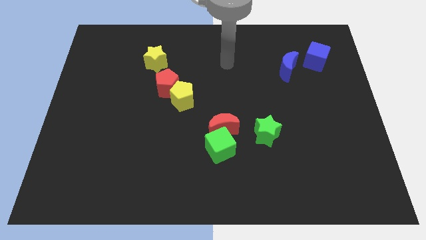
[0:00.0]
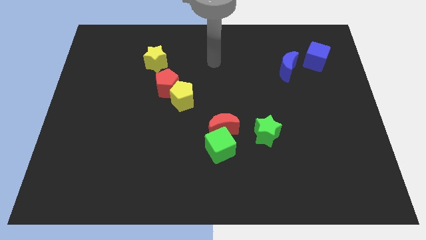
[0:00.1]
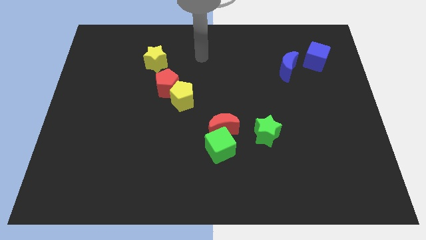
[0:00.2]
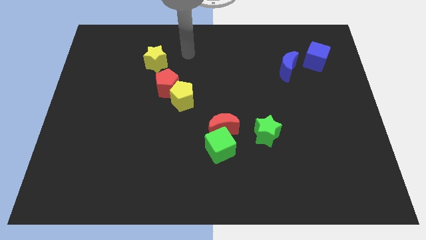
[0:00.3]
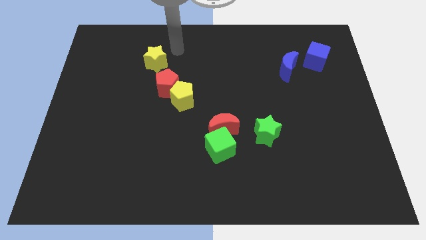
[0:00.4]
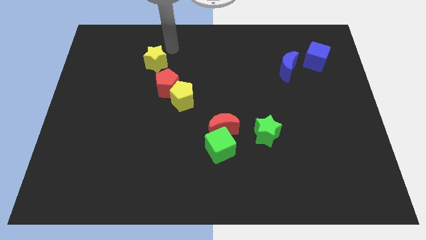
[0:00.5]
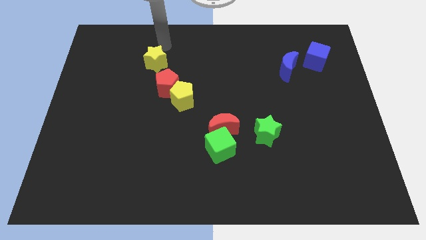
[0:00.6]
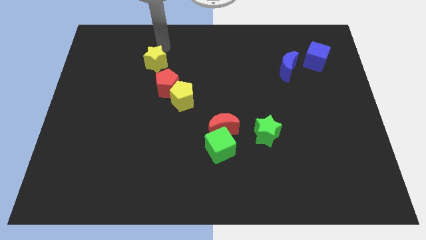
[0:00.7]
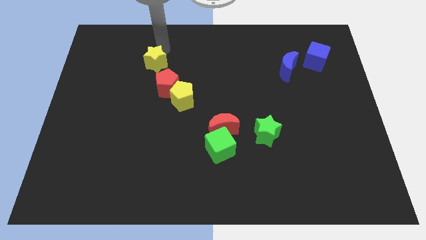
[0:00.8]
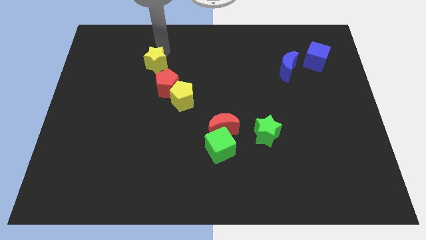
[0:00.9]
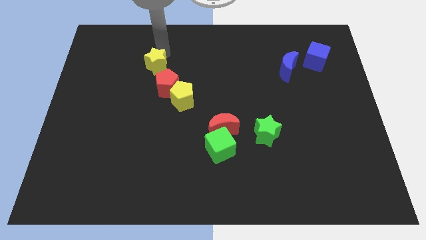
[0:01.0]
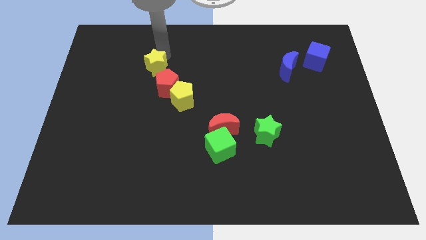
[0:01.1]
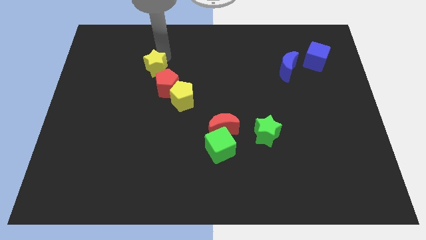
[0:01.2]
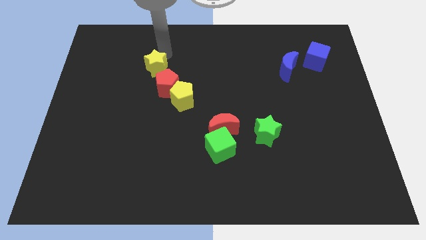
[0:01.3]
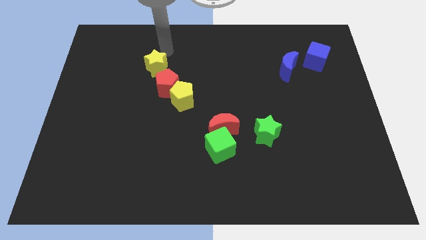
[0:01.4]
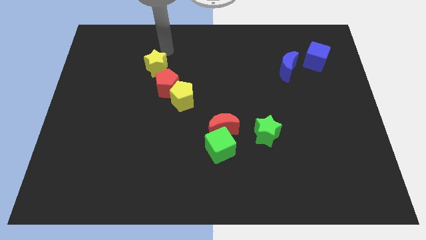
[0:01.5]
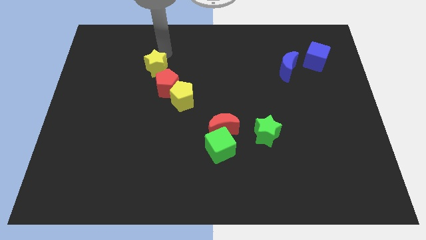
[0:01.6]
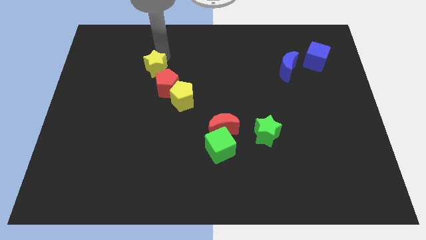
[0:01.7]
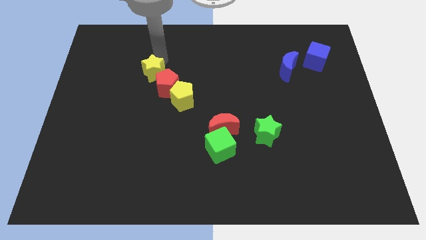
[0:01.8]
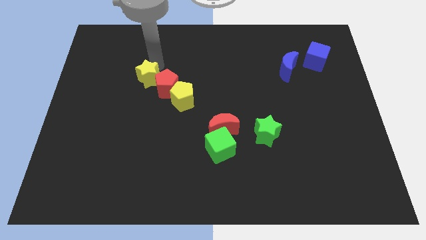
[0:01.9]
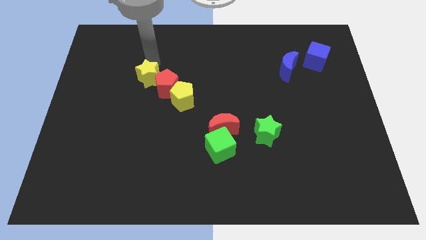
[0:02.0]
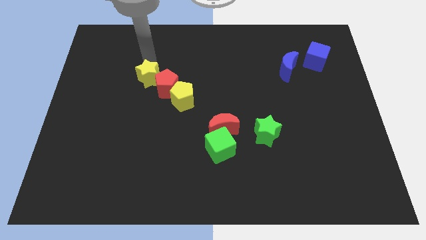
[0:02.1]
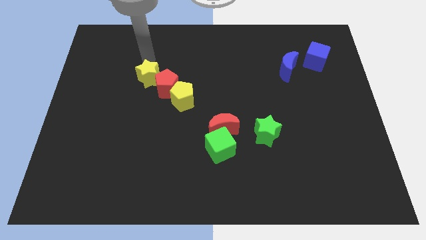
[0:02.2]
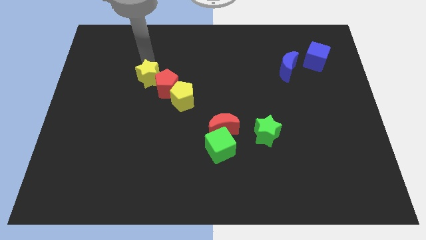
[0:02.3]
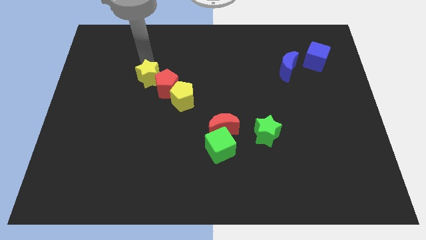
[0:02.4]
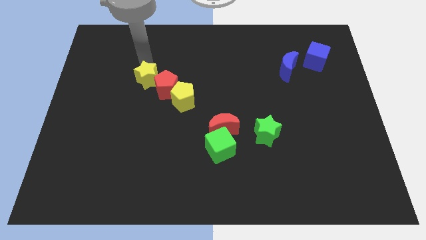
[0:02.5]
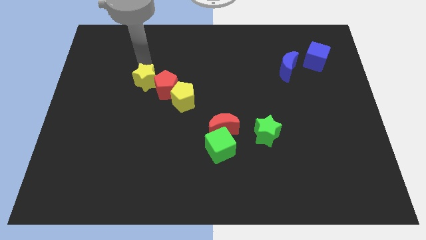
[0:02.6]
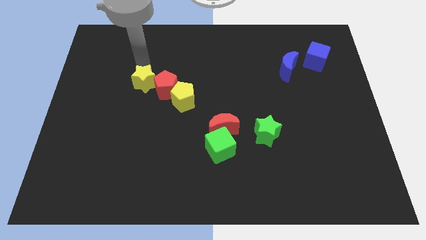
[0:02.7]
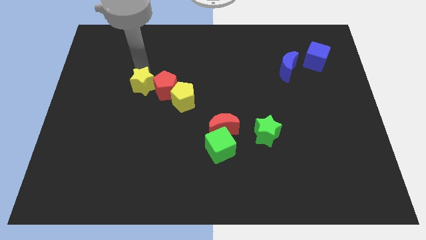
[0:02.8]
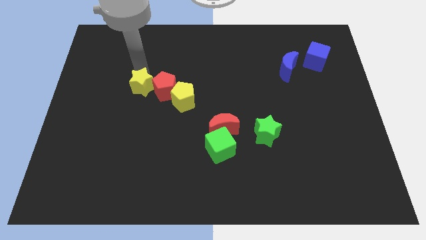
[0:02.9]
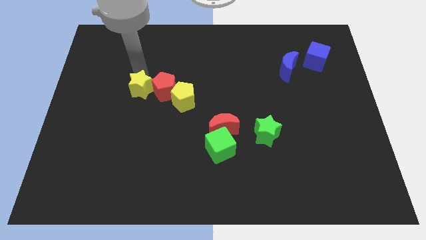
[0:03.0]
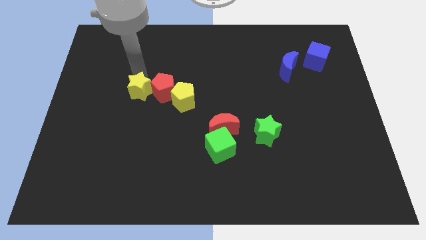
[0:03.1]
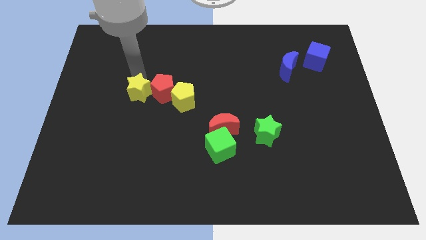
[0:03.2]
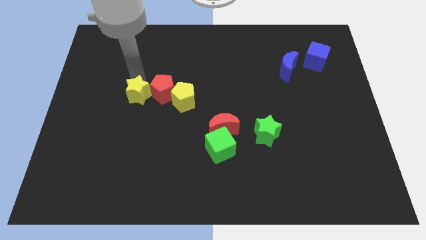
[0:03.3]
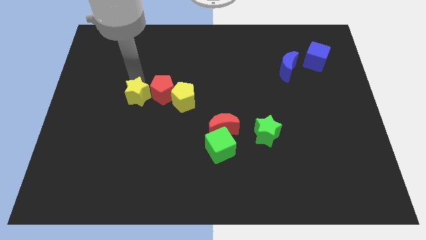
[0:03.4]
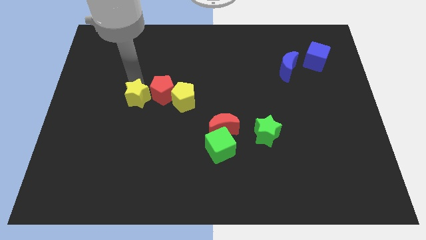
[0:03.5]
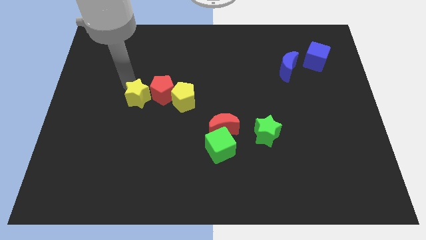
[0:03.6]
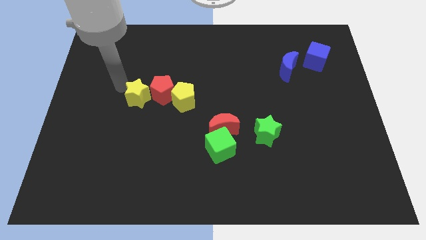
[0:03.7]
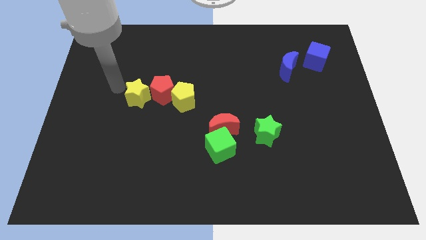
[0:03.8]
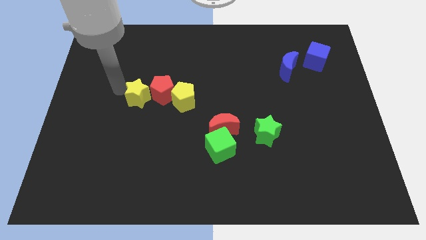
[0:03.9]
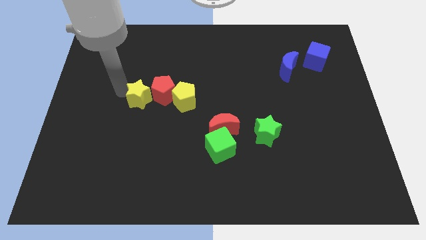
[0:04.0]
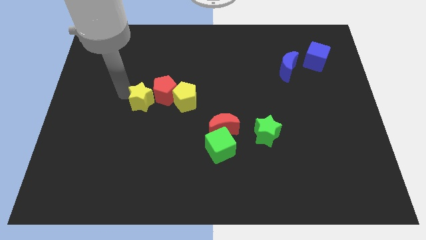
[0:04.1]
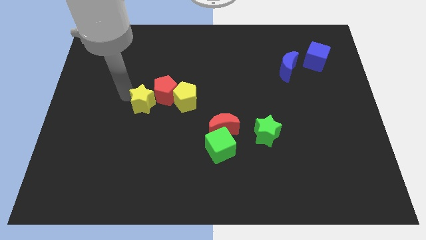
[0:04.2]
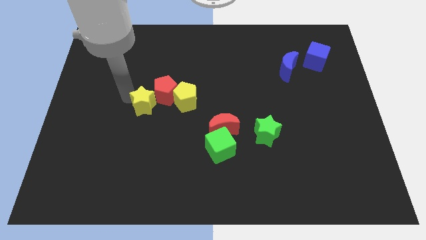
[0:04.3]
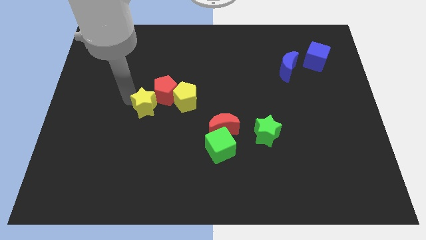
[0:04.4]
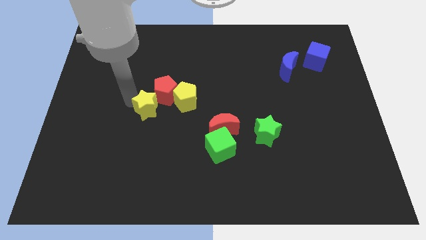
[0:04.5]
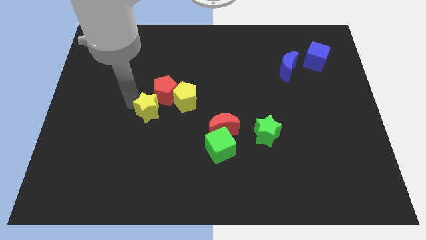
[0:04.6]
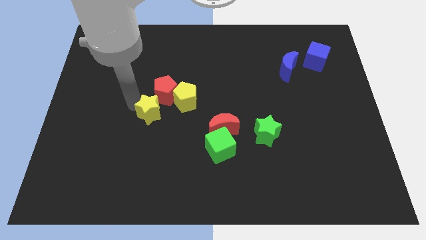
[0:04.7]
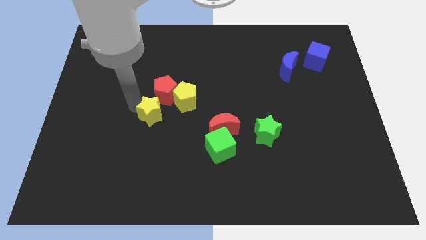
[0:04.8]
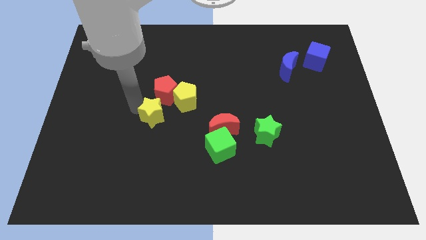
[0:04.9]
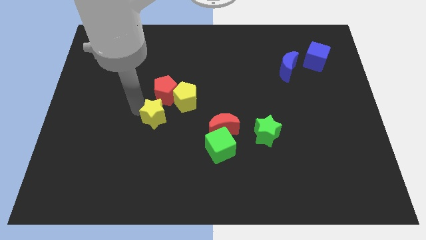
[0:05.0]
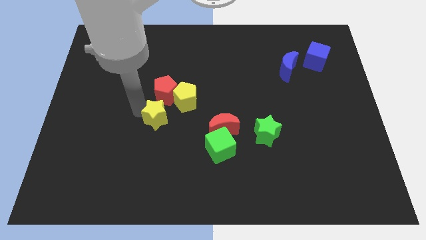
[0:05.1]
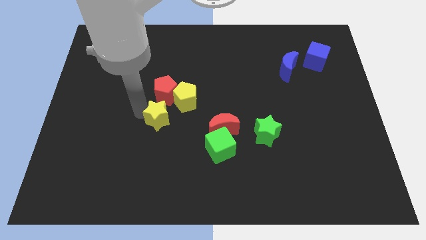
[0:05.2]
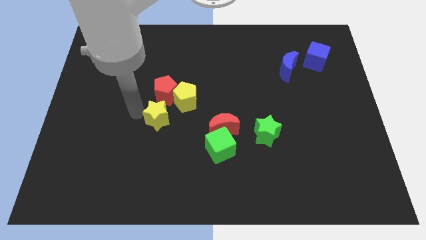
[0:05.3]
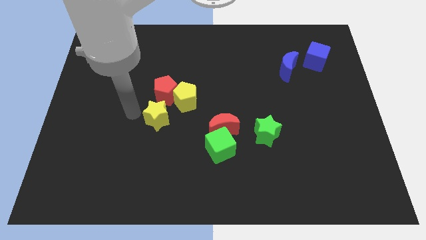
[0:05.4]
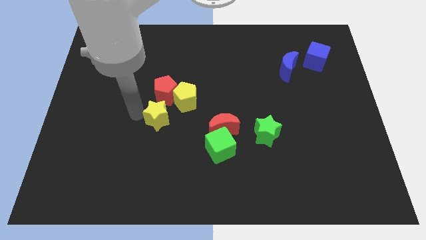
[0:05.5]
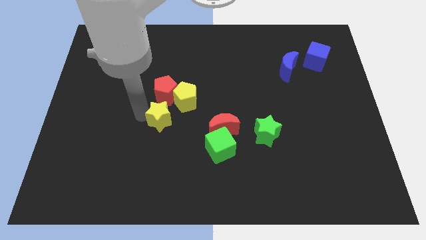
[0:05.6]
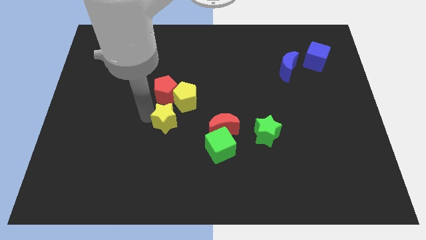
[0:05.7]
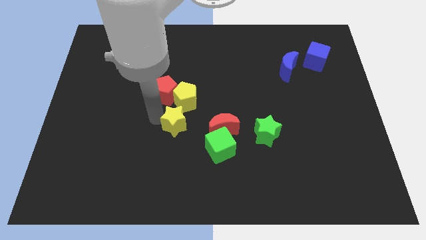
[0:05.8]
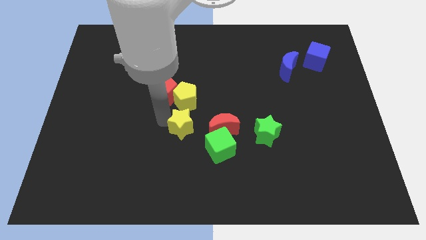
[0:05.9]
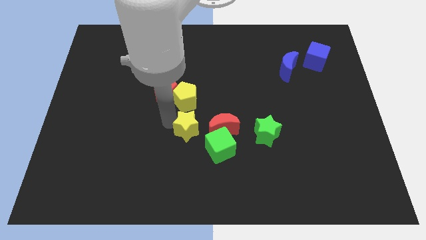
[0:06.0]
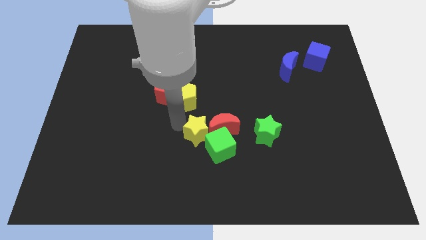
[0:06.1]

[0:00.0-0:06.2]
put the yellow star close to the green cube

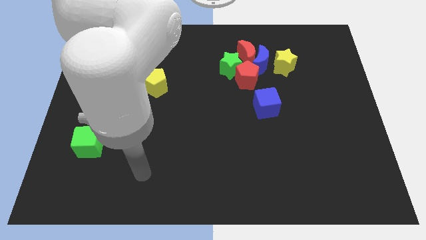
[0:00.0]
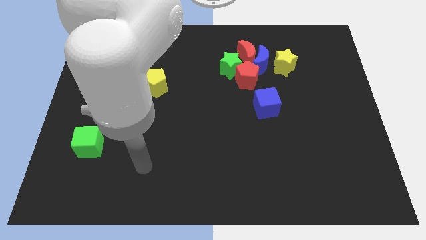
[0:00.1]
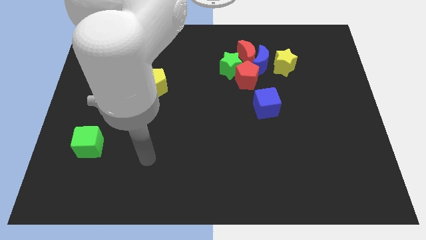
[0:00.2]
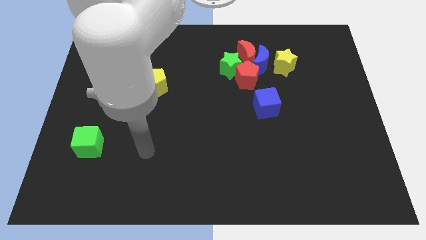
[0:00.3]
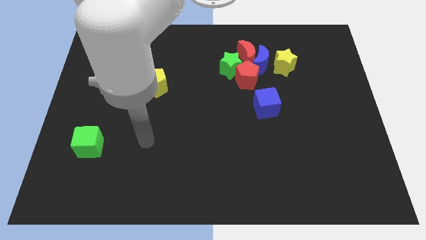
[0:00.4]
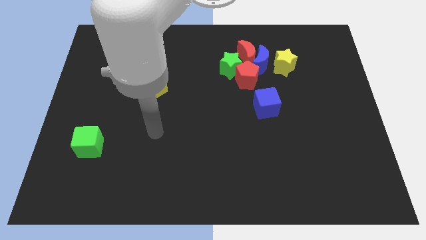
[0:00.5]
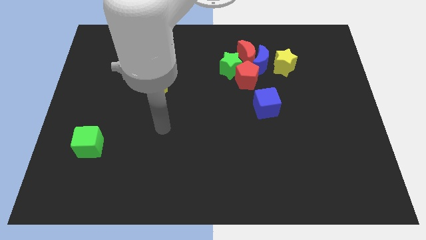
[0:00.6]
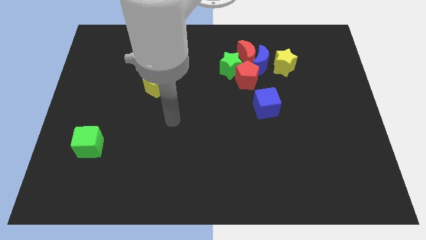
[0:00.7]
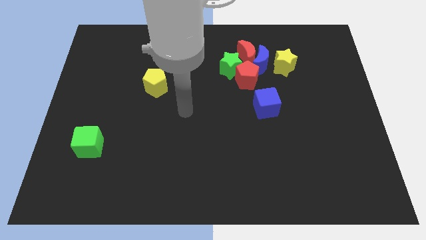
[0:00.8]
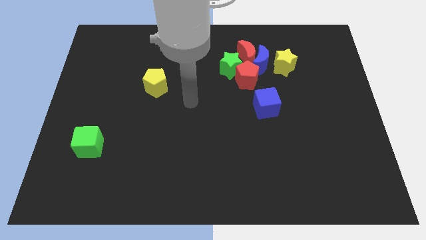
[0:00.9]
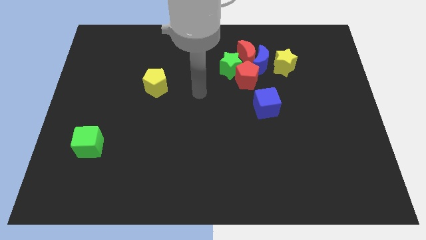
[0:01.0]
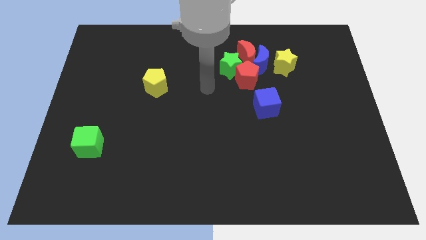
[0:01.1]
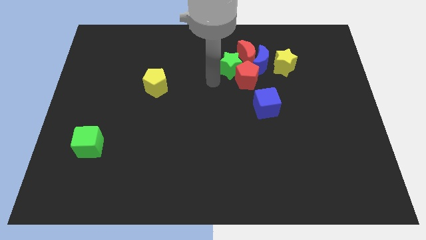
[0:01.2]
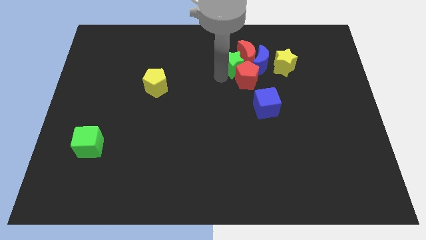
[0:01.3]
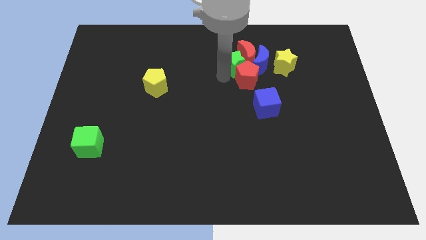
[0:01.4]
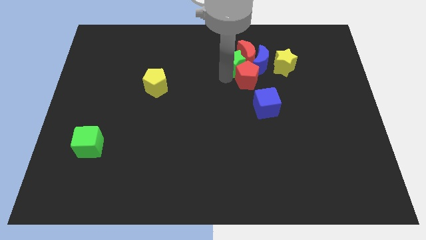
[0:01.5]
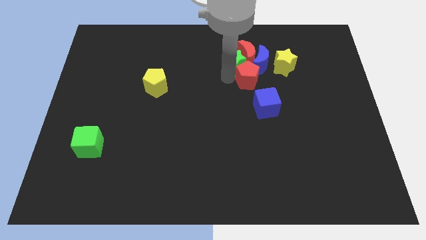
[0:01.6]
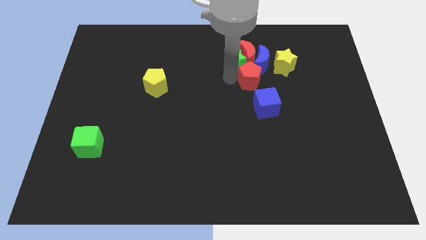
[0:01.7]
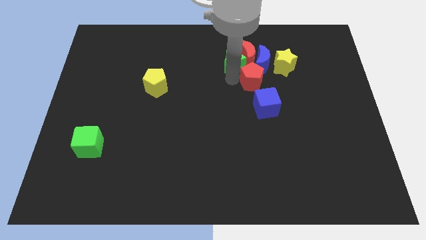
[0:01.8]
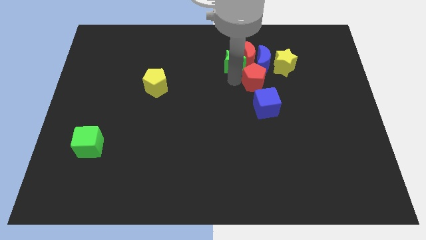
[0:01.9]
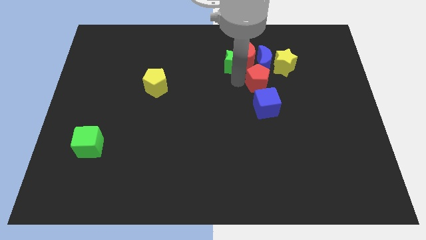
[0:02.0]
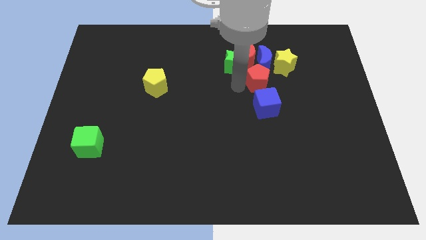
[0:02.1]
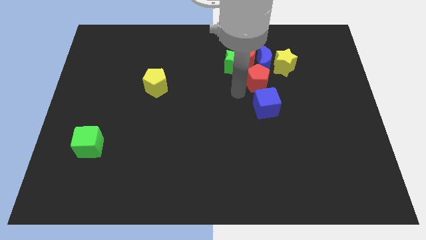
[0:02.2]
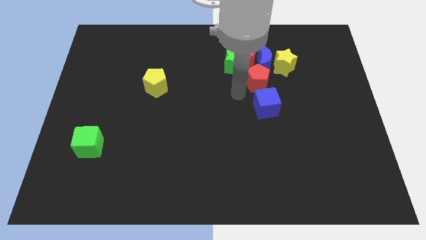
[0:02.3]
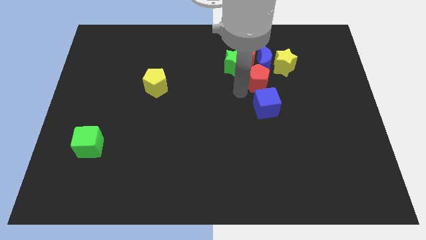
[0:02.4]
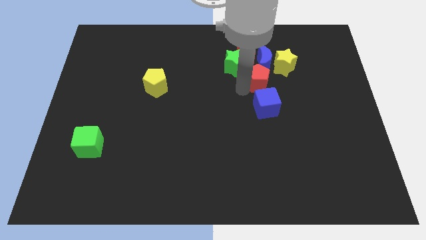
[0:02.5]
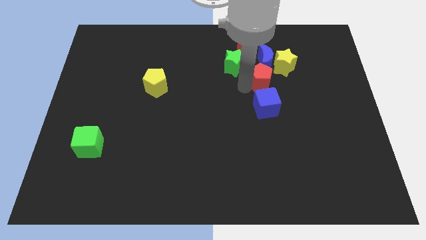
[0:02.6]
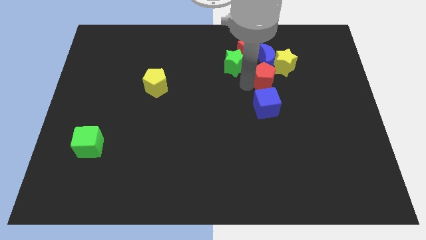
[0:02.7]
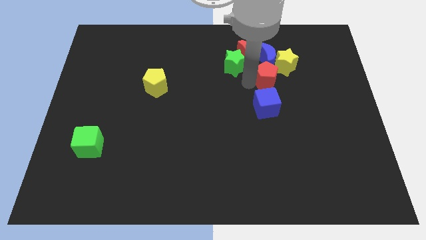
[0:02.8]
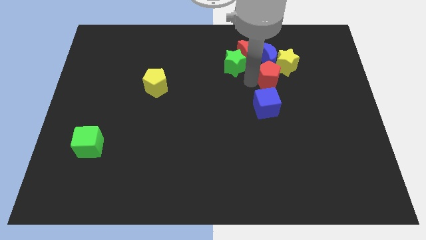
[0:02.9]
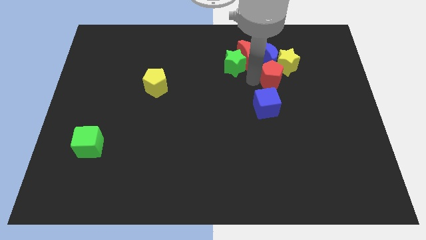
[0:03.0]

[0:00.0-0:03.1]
slide the red pentagon to the yellow star
